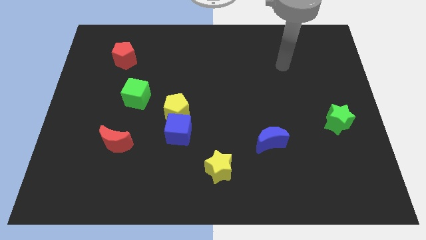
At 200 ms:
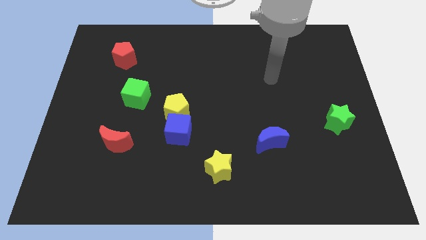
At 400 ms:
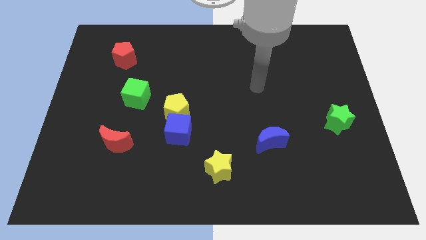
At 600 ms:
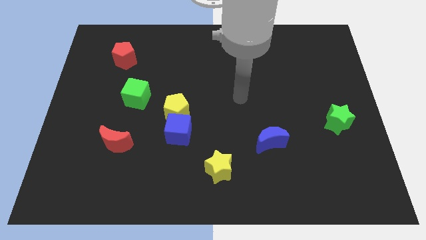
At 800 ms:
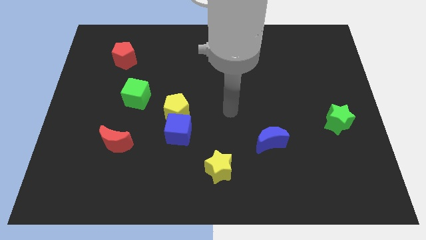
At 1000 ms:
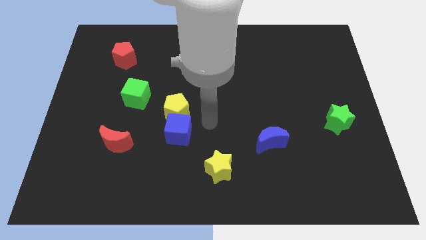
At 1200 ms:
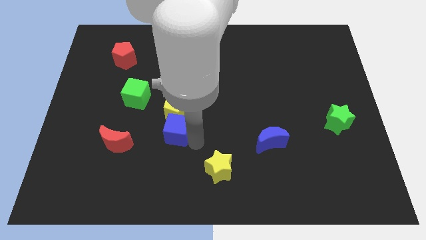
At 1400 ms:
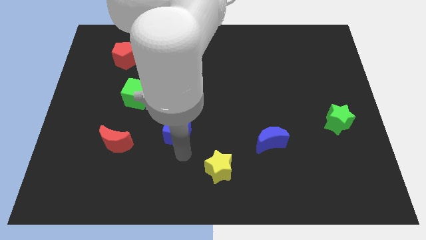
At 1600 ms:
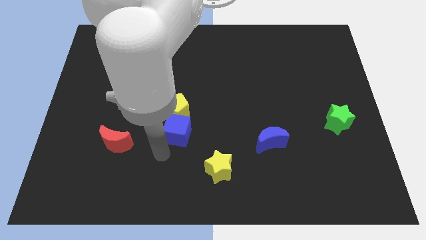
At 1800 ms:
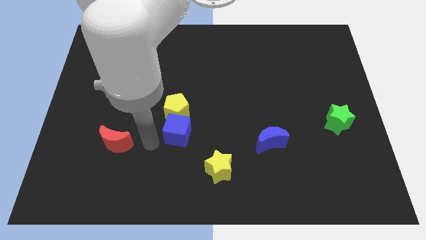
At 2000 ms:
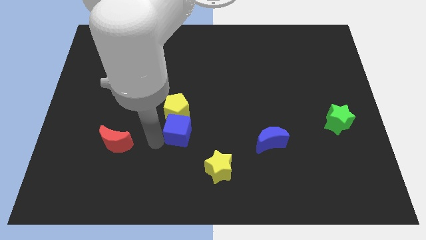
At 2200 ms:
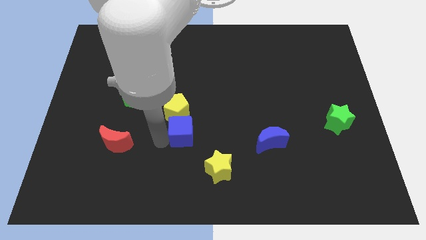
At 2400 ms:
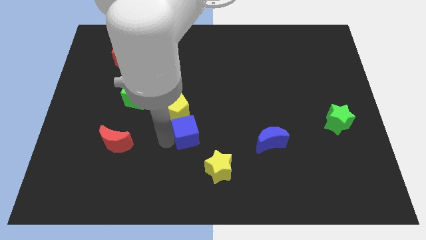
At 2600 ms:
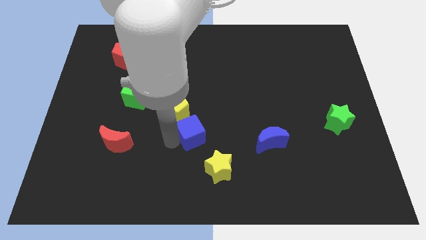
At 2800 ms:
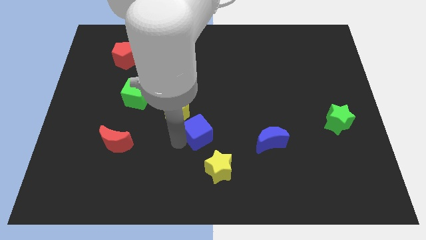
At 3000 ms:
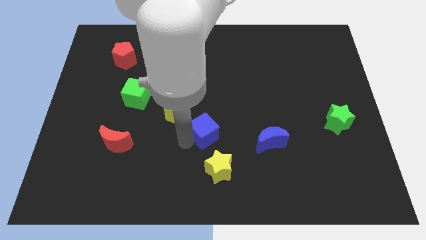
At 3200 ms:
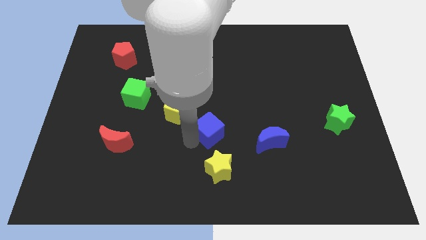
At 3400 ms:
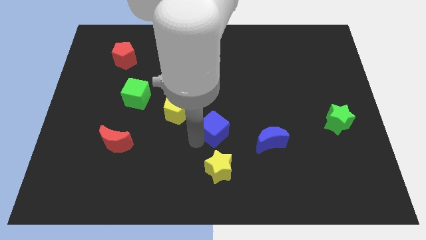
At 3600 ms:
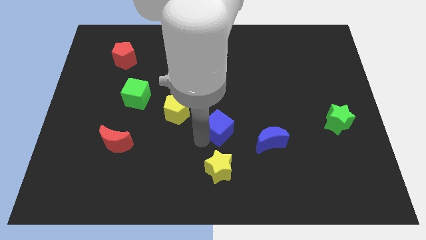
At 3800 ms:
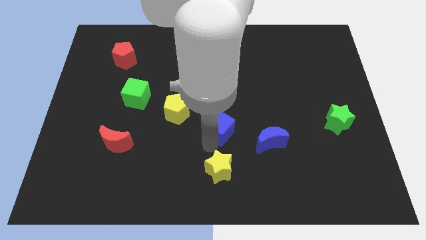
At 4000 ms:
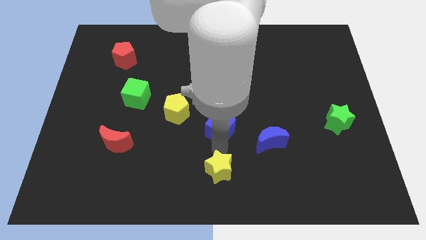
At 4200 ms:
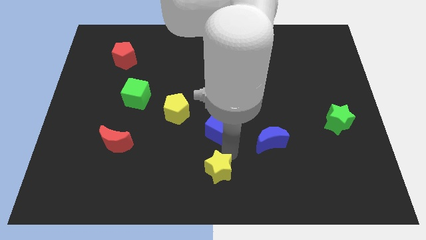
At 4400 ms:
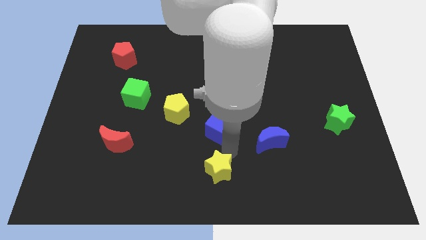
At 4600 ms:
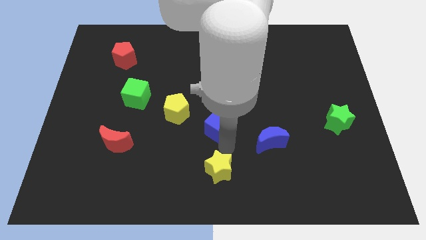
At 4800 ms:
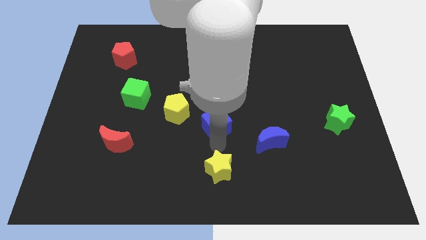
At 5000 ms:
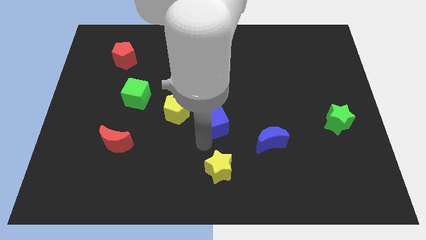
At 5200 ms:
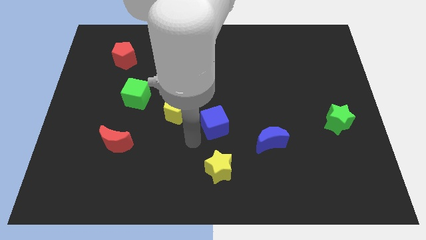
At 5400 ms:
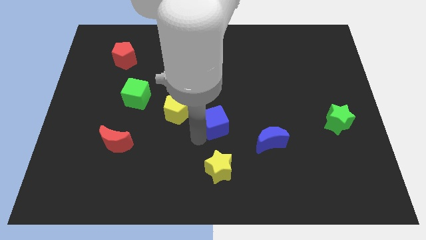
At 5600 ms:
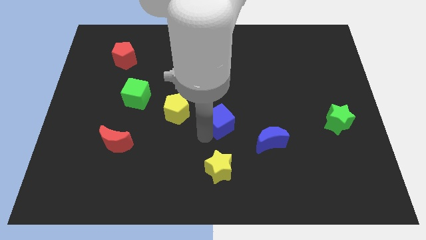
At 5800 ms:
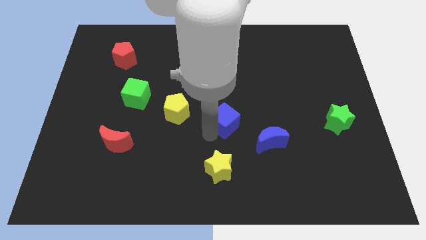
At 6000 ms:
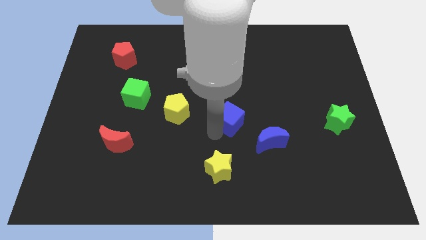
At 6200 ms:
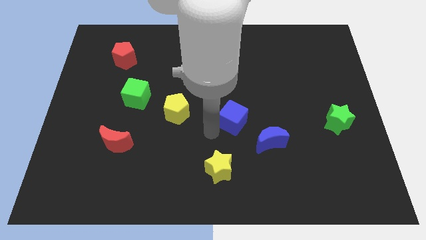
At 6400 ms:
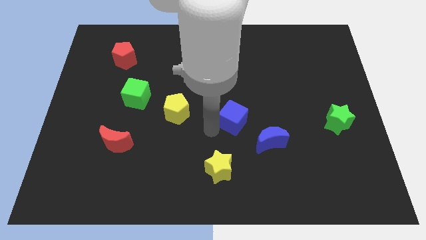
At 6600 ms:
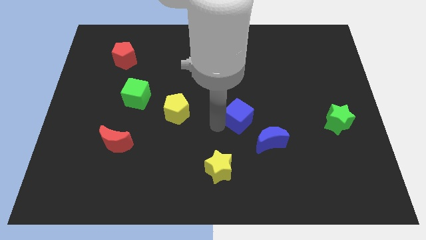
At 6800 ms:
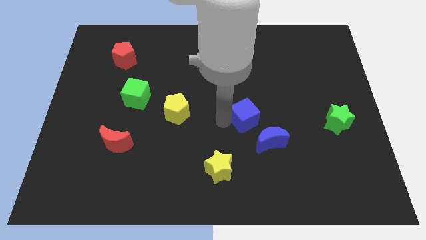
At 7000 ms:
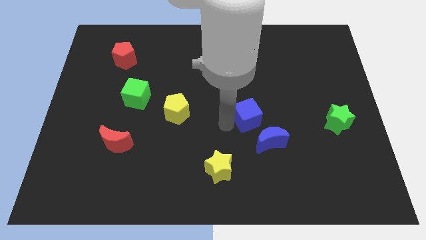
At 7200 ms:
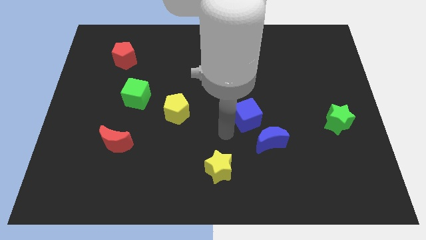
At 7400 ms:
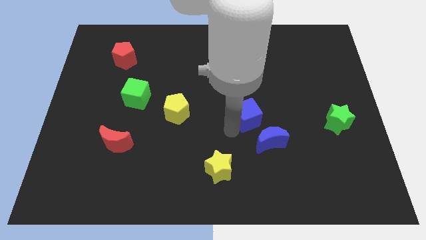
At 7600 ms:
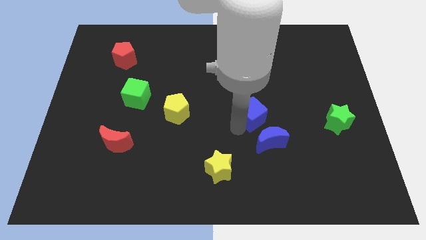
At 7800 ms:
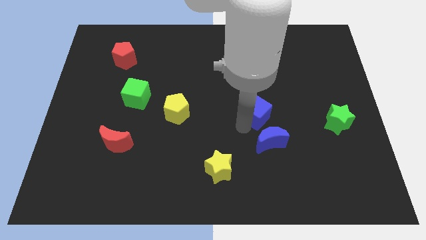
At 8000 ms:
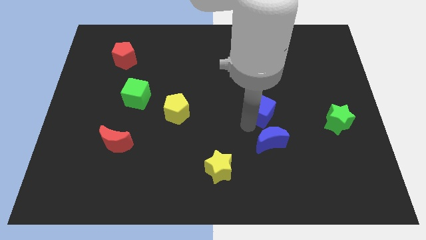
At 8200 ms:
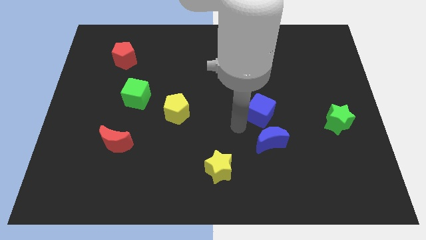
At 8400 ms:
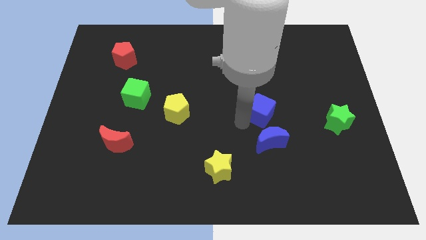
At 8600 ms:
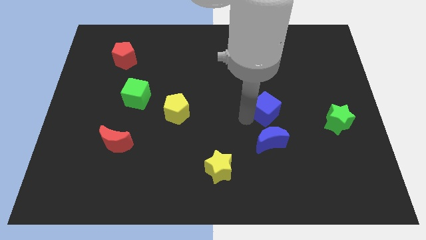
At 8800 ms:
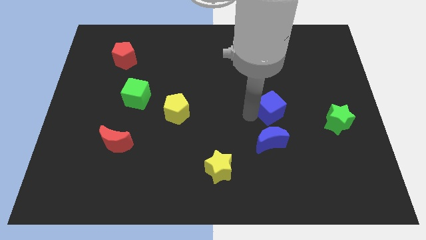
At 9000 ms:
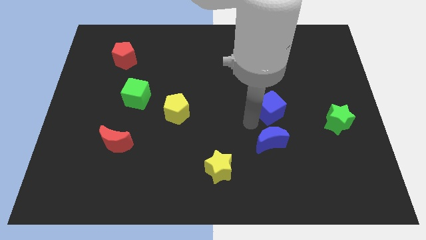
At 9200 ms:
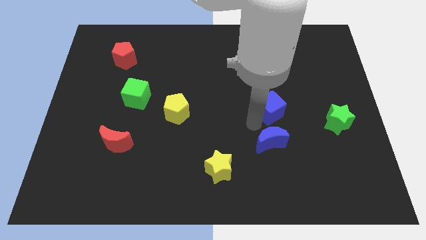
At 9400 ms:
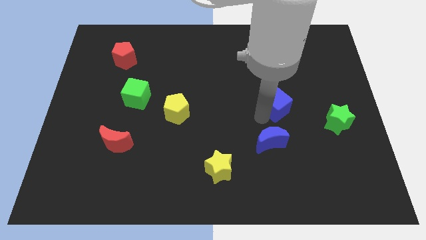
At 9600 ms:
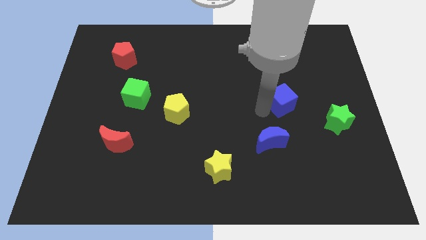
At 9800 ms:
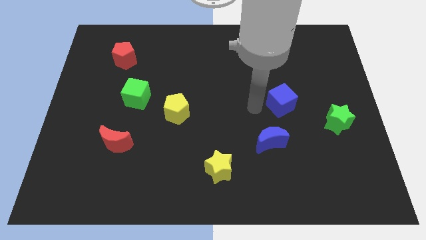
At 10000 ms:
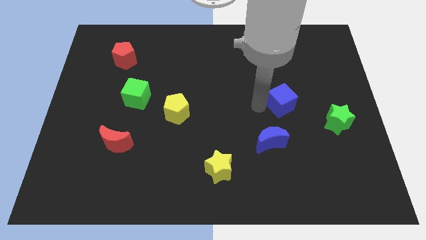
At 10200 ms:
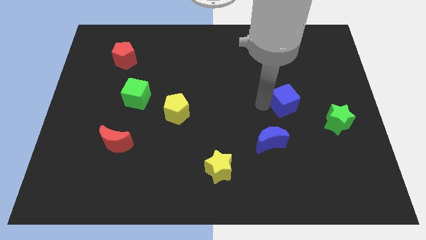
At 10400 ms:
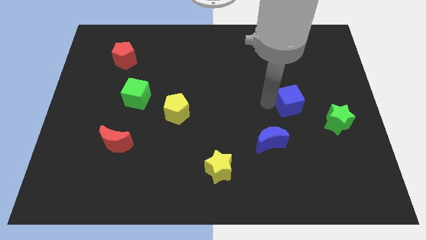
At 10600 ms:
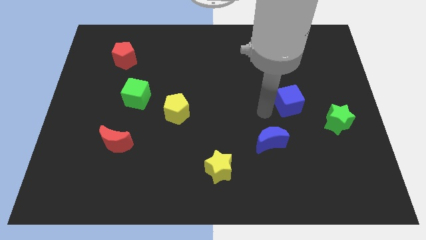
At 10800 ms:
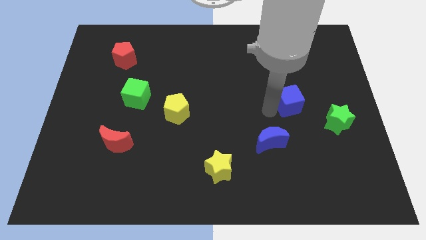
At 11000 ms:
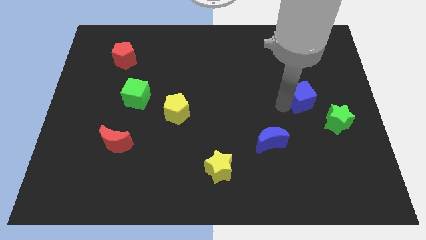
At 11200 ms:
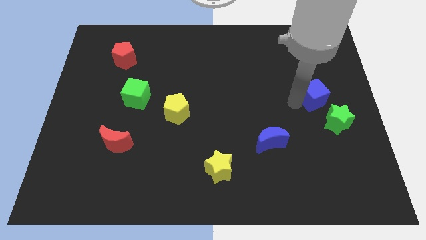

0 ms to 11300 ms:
push the blue cube to the top of the green star

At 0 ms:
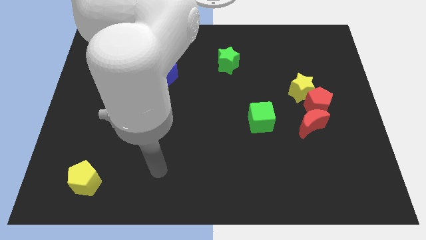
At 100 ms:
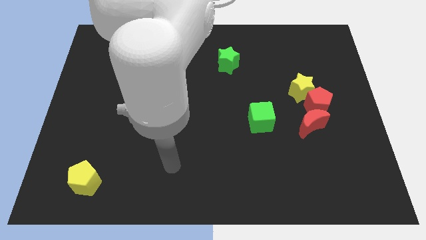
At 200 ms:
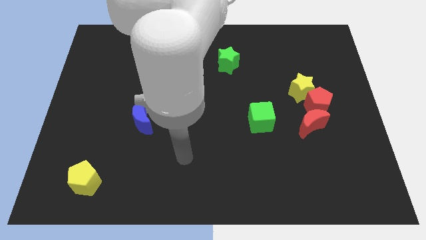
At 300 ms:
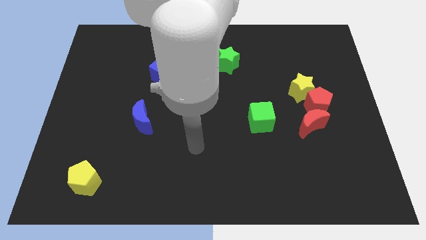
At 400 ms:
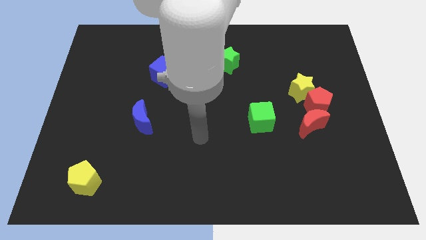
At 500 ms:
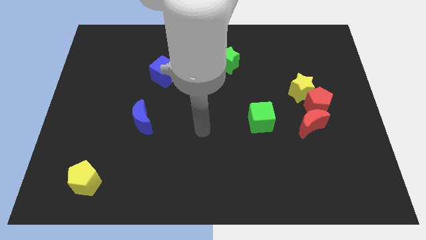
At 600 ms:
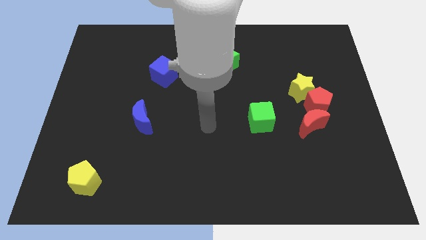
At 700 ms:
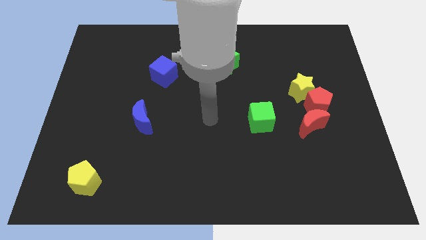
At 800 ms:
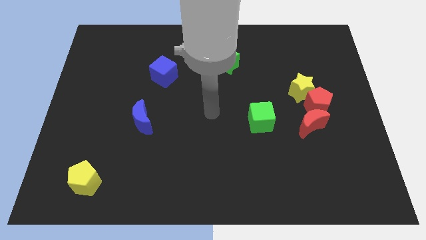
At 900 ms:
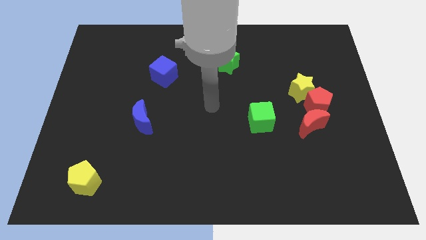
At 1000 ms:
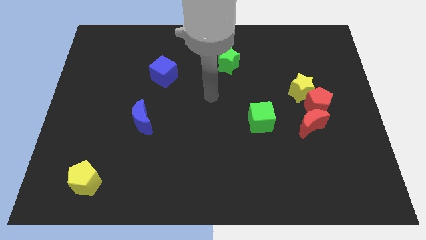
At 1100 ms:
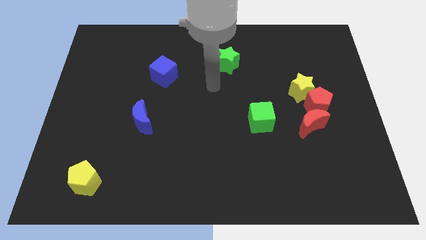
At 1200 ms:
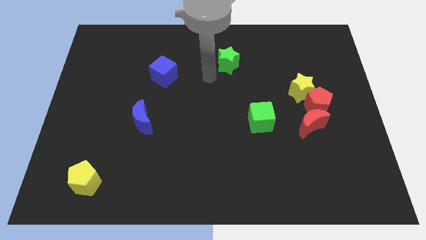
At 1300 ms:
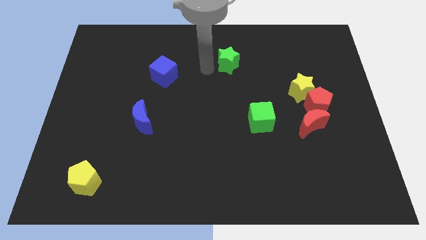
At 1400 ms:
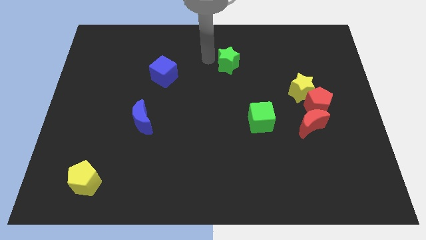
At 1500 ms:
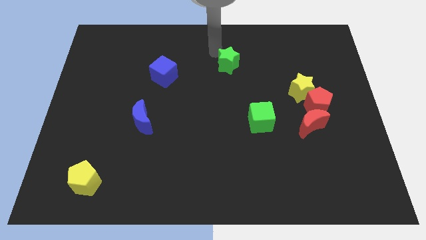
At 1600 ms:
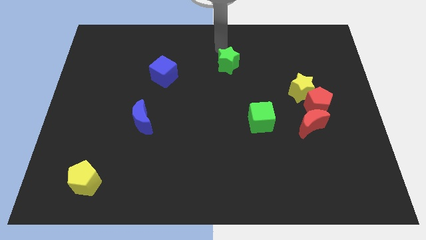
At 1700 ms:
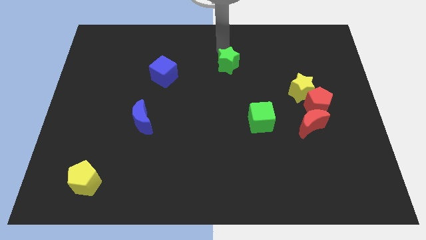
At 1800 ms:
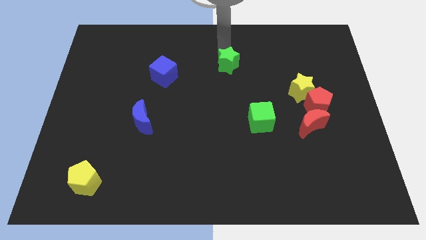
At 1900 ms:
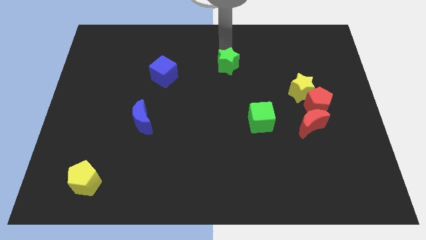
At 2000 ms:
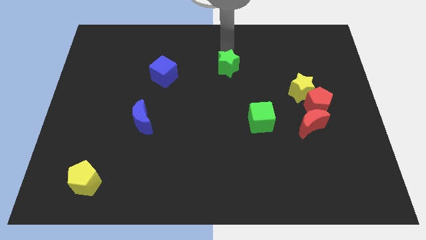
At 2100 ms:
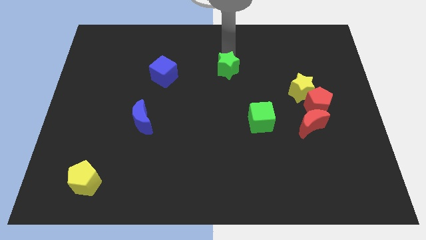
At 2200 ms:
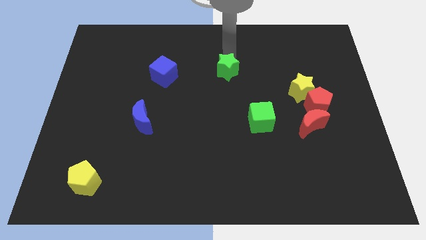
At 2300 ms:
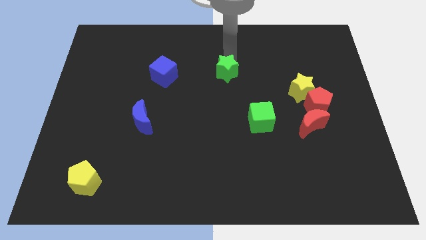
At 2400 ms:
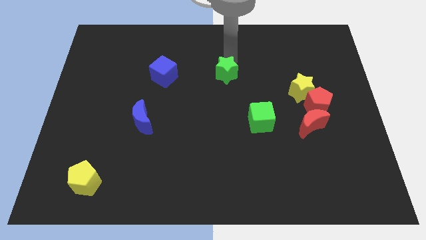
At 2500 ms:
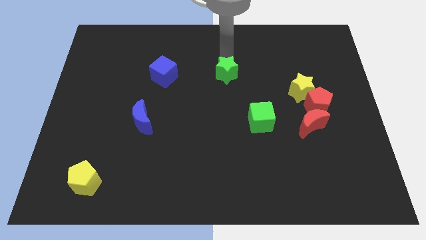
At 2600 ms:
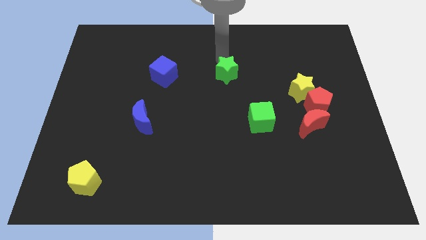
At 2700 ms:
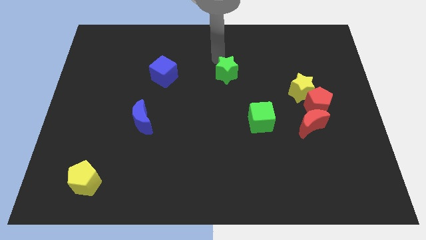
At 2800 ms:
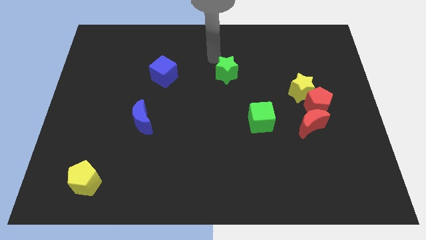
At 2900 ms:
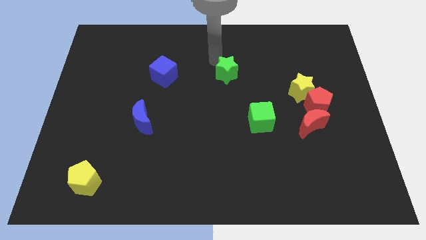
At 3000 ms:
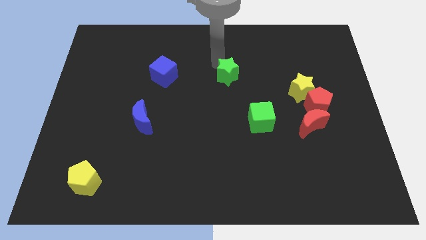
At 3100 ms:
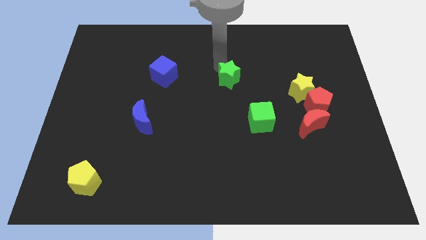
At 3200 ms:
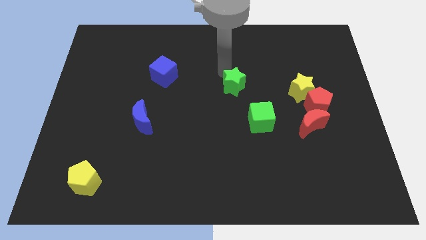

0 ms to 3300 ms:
put the green star diagonally up and to the left of the green cube
